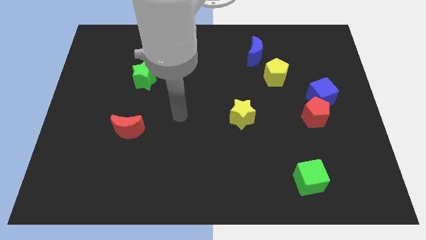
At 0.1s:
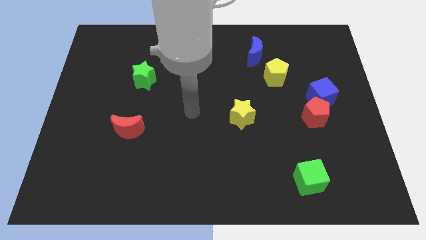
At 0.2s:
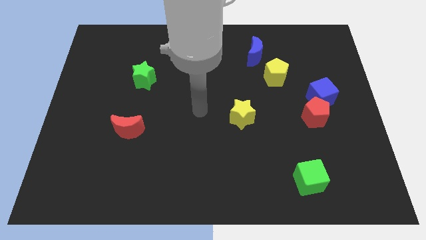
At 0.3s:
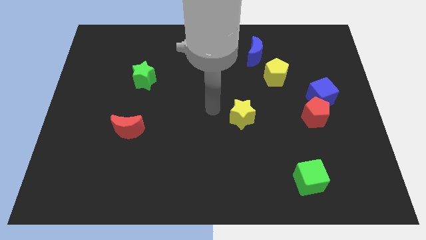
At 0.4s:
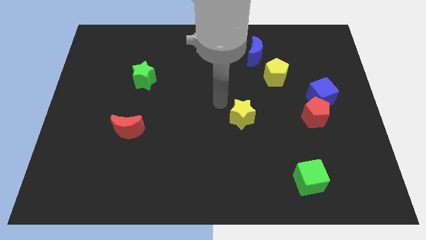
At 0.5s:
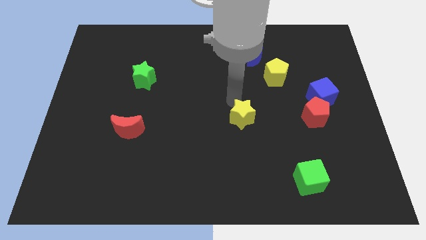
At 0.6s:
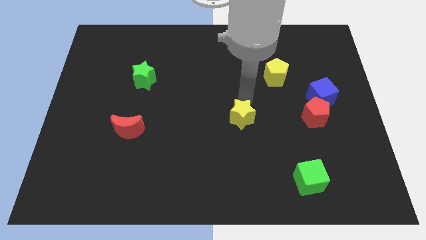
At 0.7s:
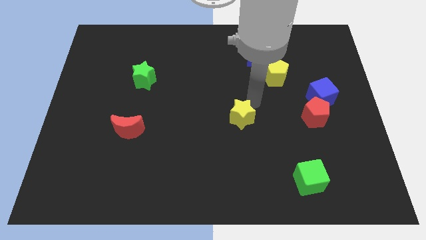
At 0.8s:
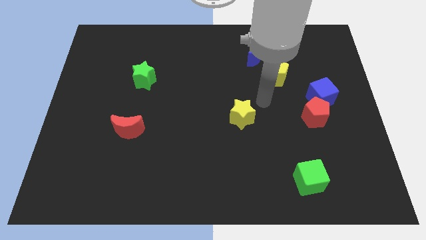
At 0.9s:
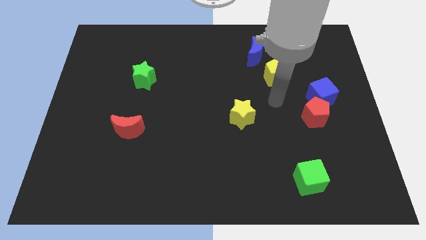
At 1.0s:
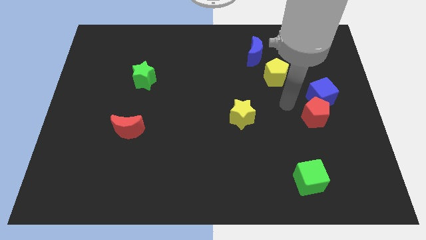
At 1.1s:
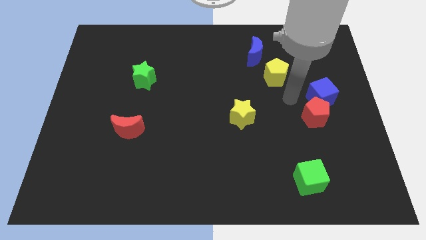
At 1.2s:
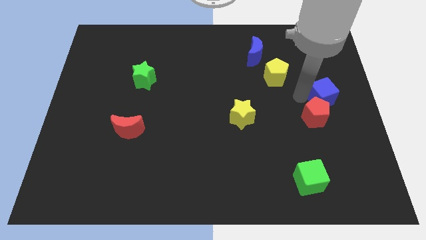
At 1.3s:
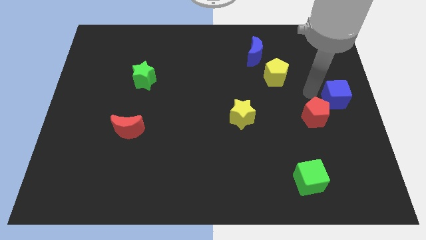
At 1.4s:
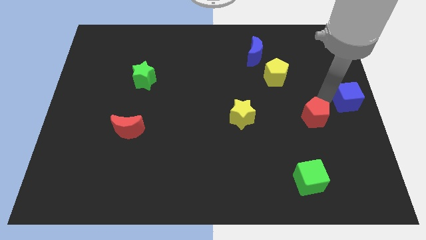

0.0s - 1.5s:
separate the red pentagon from the blue cube

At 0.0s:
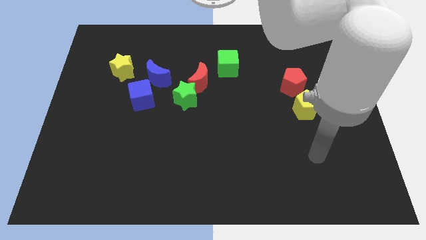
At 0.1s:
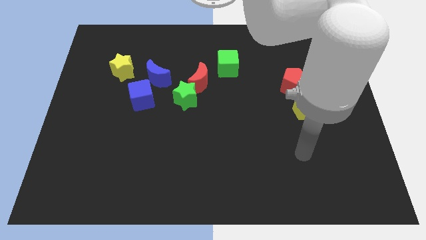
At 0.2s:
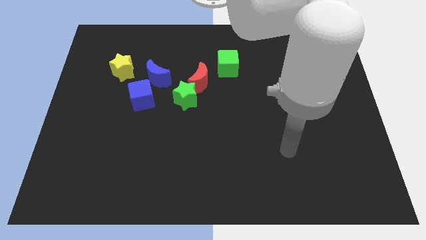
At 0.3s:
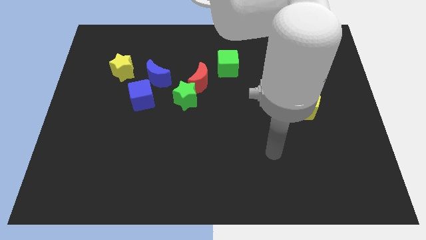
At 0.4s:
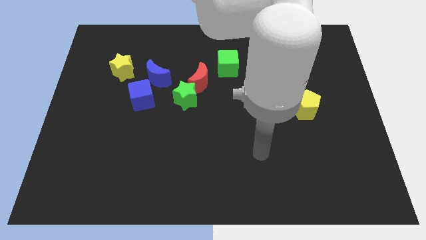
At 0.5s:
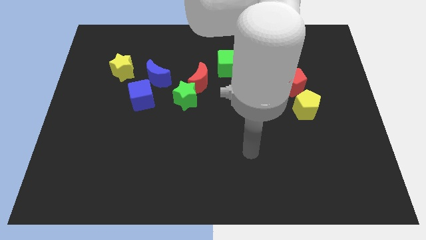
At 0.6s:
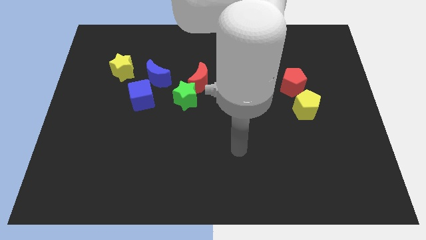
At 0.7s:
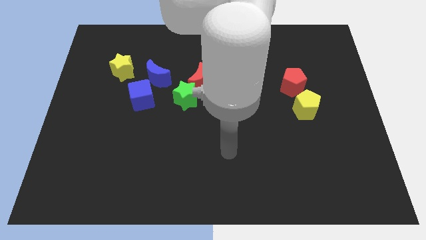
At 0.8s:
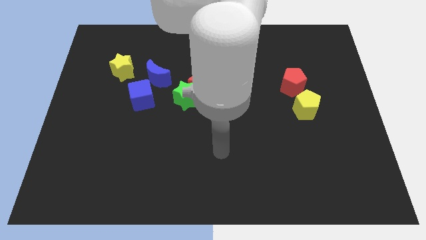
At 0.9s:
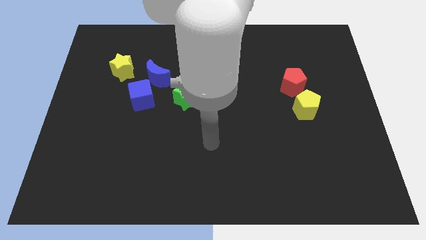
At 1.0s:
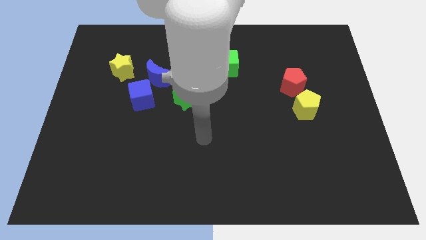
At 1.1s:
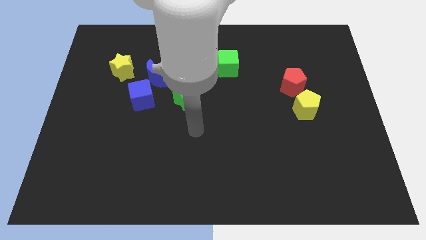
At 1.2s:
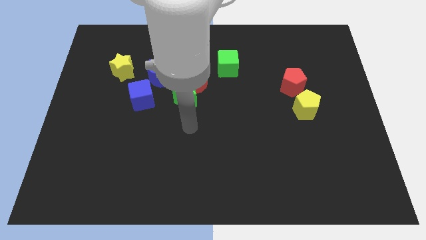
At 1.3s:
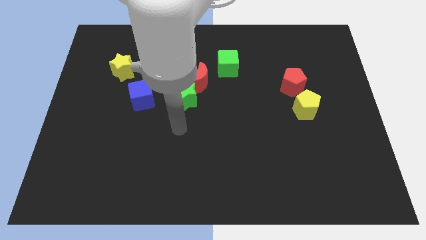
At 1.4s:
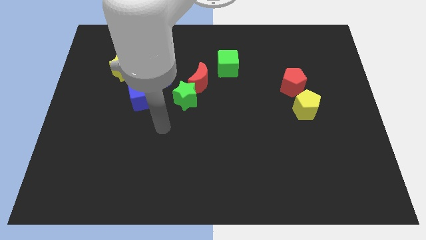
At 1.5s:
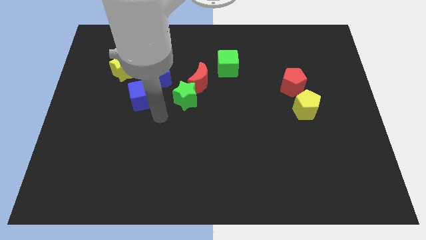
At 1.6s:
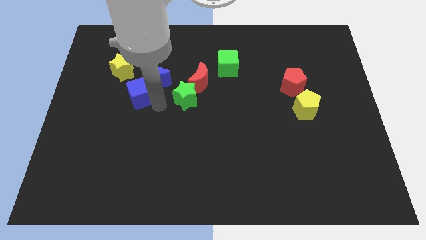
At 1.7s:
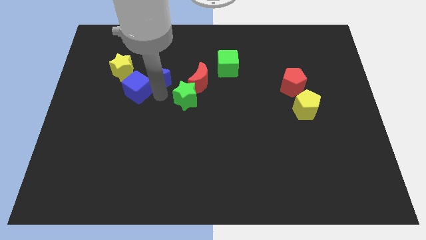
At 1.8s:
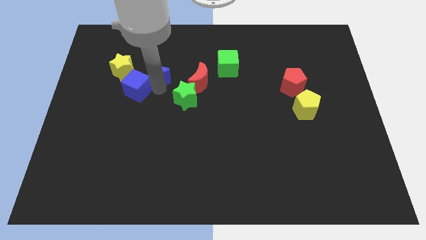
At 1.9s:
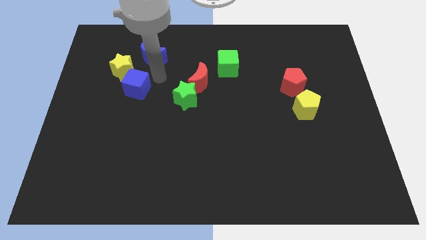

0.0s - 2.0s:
move the blue cube away from the blue moon

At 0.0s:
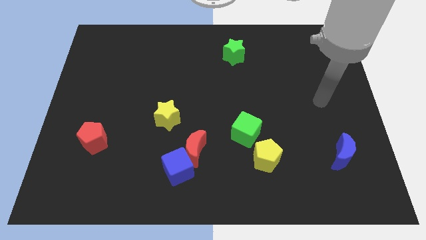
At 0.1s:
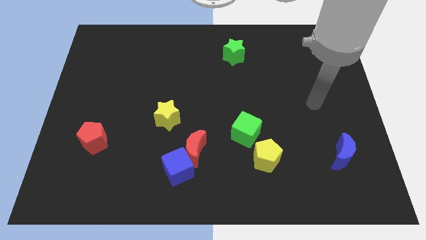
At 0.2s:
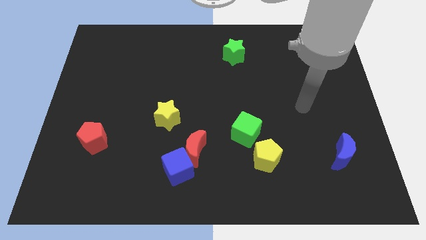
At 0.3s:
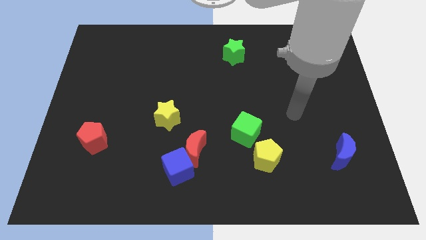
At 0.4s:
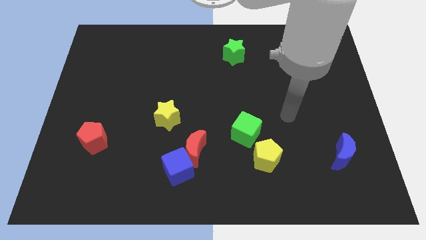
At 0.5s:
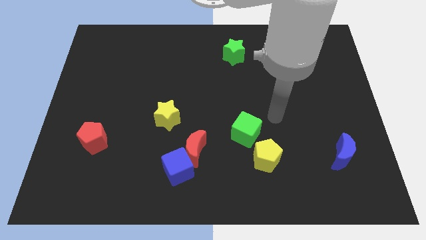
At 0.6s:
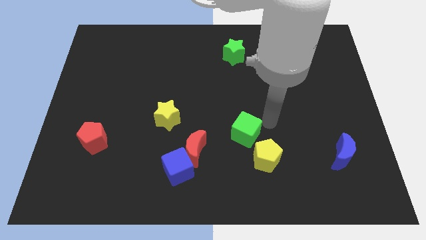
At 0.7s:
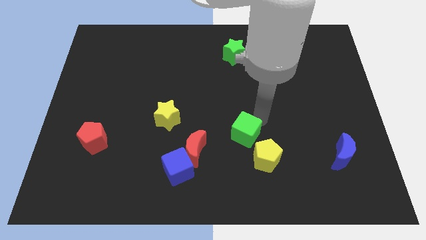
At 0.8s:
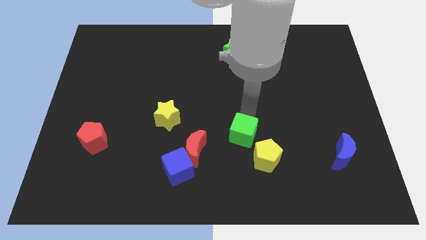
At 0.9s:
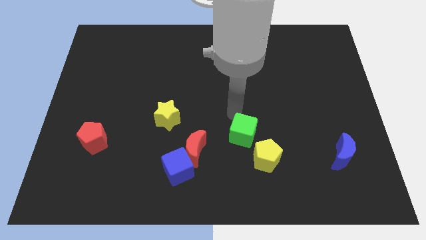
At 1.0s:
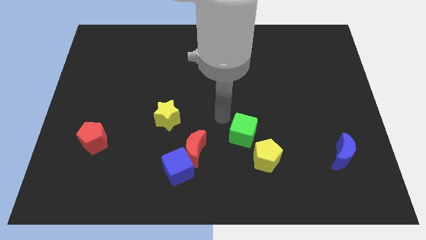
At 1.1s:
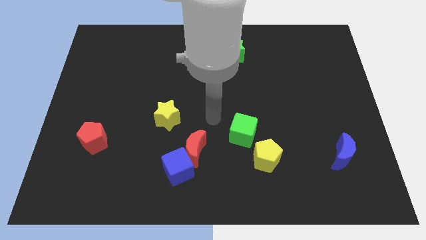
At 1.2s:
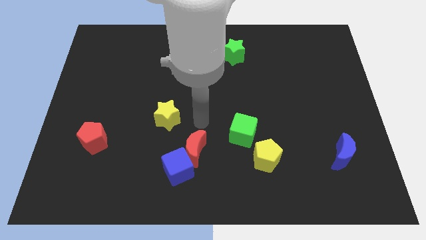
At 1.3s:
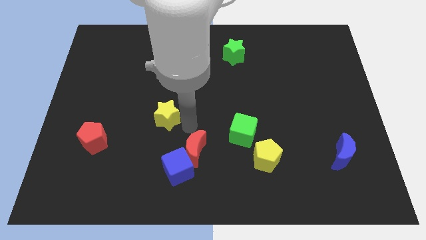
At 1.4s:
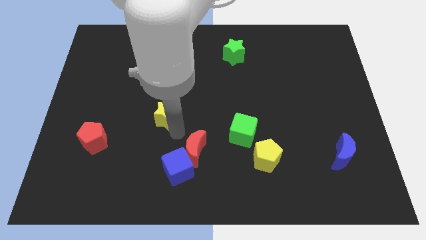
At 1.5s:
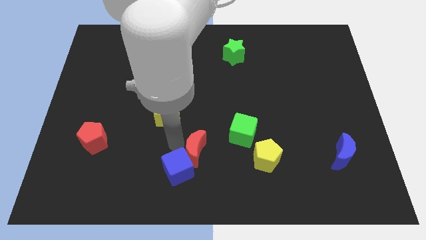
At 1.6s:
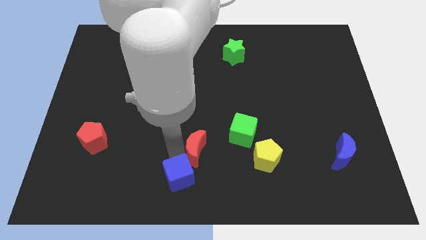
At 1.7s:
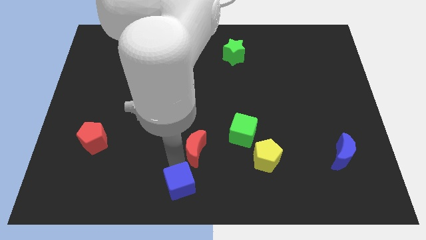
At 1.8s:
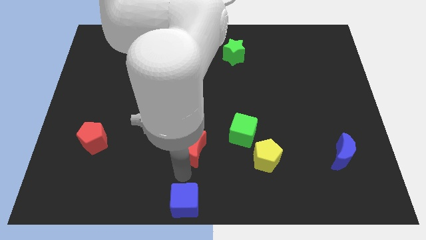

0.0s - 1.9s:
move the red moon away from the blue cube

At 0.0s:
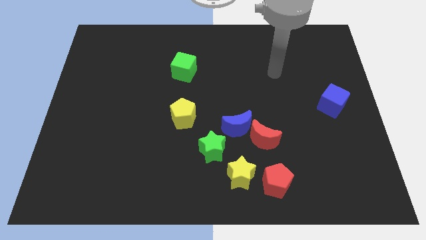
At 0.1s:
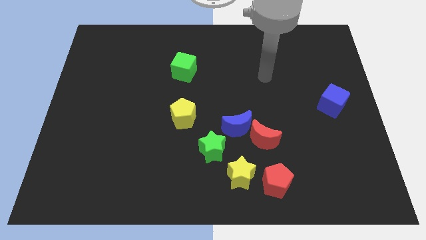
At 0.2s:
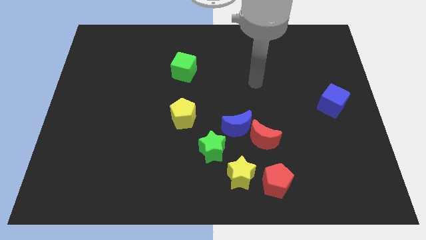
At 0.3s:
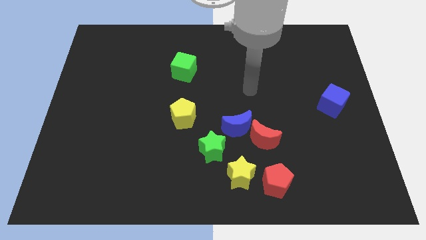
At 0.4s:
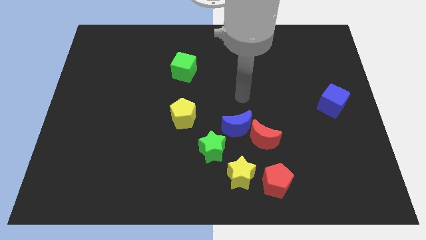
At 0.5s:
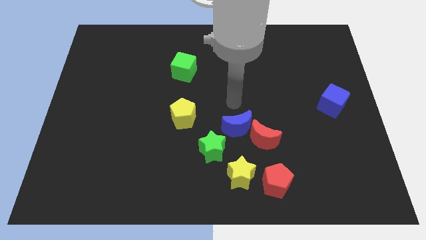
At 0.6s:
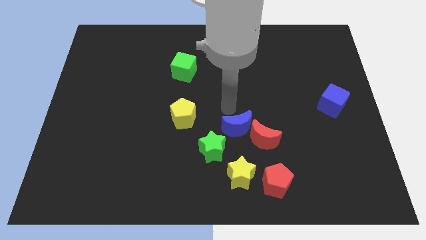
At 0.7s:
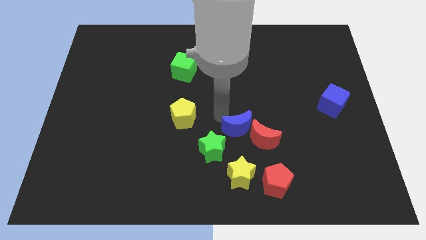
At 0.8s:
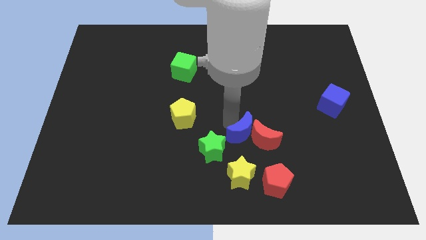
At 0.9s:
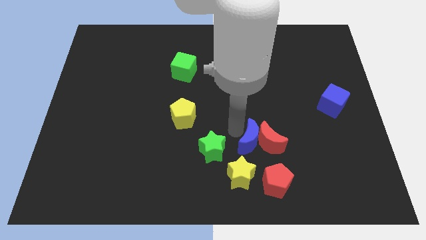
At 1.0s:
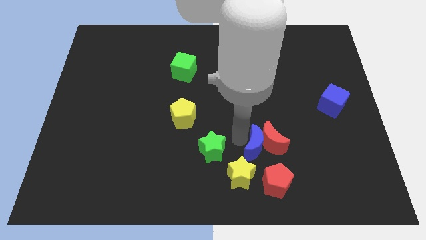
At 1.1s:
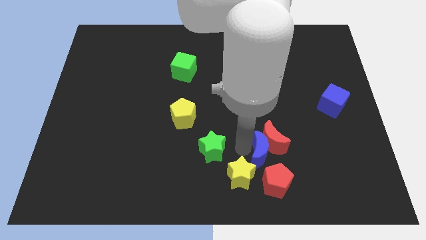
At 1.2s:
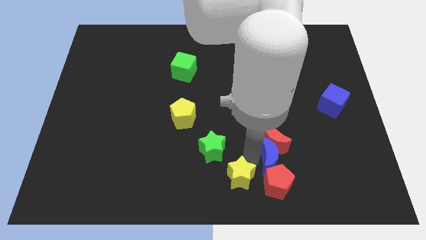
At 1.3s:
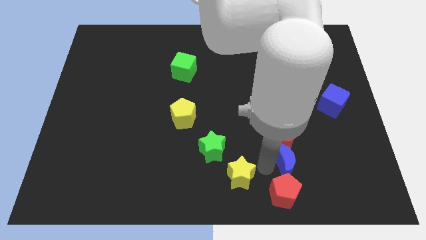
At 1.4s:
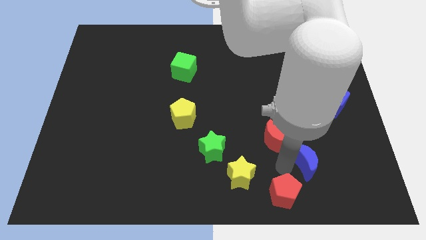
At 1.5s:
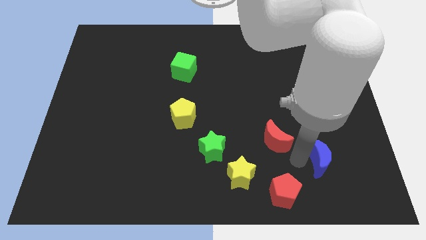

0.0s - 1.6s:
pull the red moon apart from the blue moon

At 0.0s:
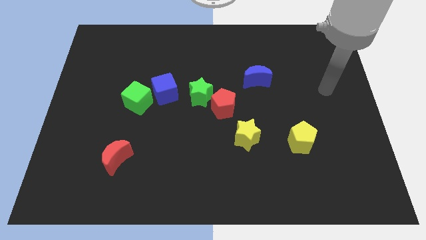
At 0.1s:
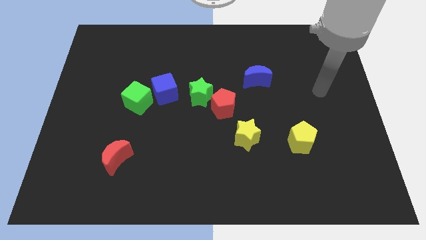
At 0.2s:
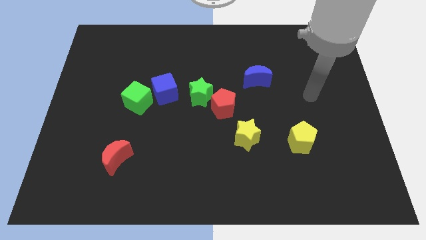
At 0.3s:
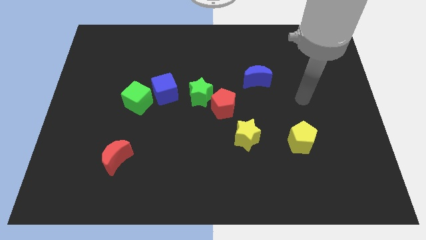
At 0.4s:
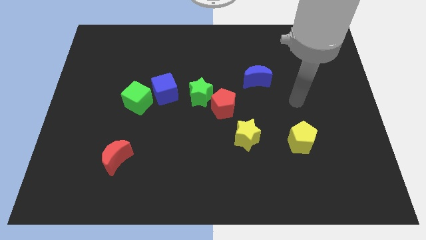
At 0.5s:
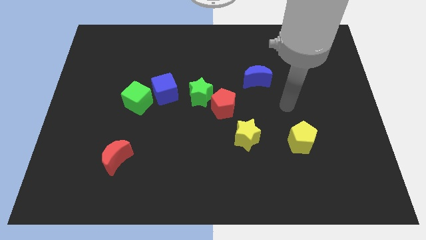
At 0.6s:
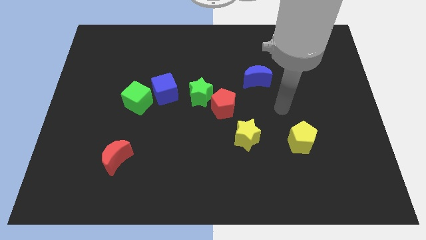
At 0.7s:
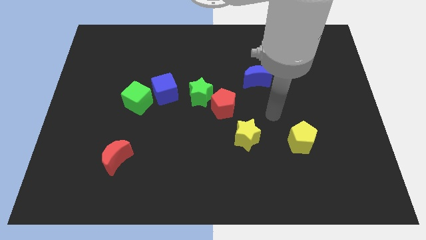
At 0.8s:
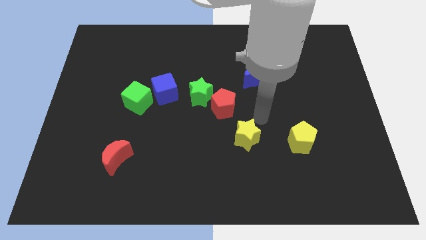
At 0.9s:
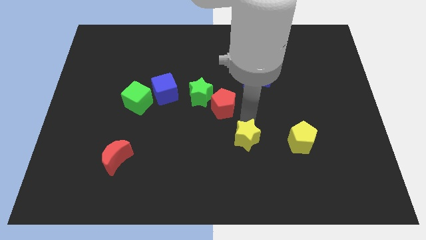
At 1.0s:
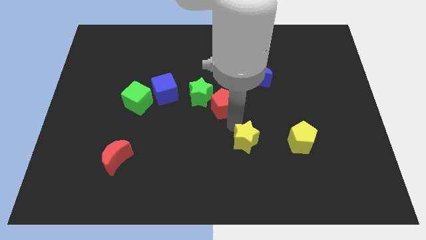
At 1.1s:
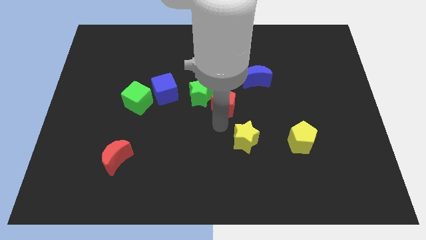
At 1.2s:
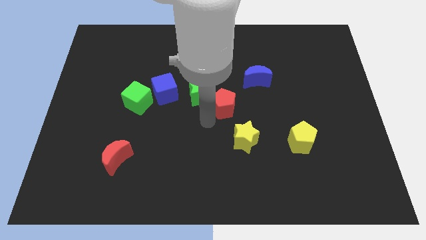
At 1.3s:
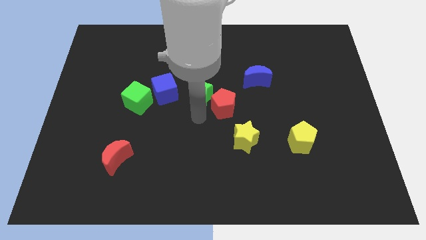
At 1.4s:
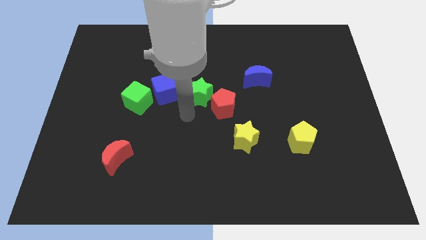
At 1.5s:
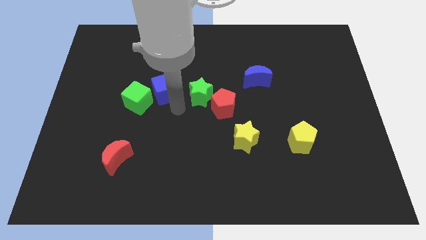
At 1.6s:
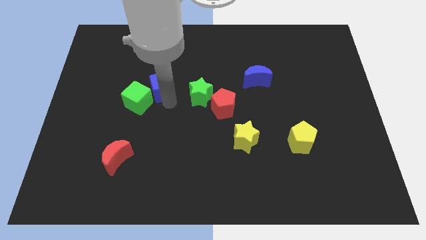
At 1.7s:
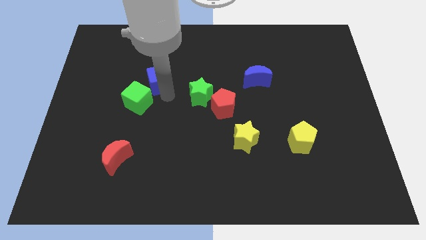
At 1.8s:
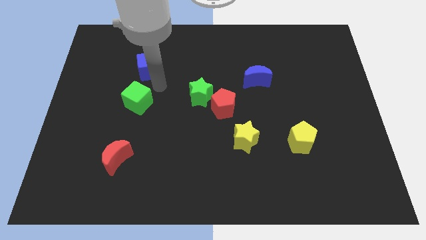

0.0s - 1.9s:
pull the green cube apart from the blue cube

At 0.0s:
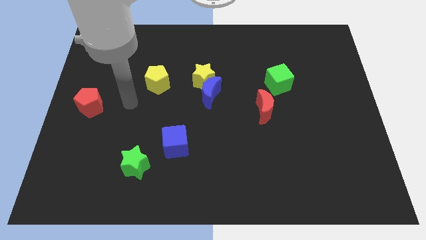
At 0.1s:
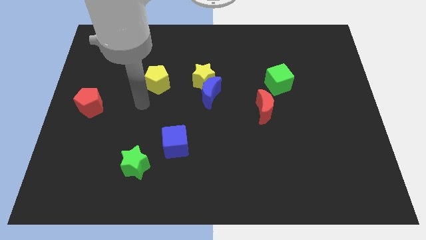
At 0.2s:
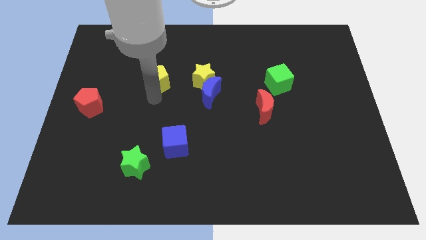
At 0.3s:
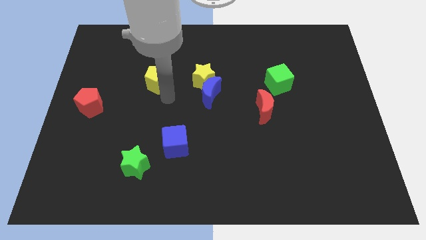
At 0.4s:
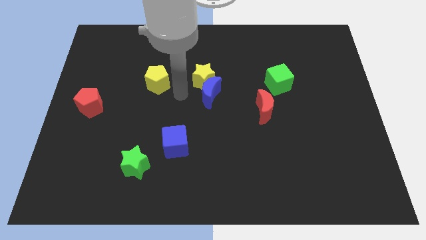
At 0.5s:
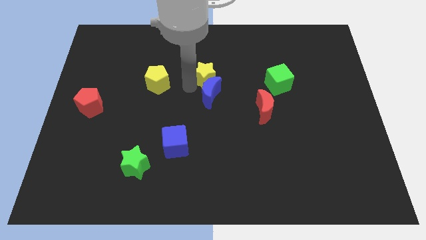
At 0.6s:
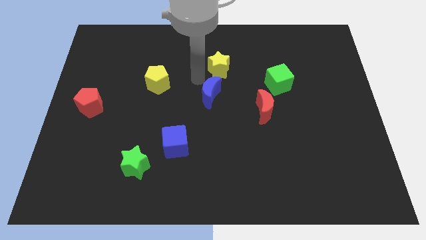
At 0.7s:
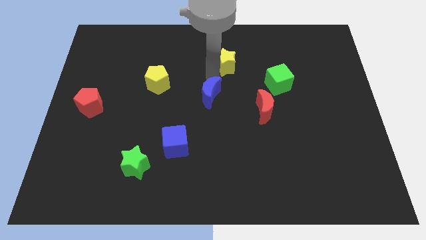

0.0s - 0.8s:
pull the blue moon apart from the yellow star
